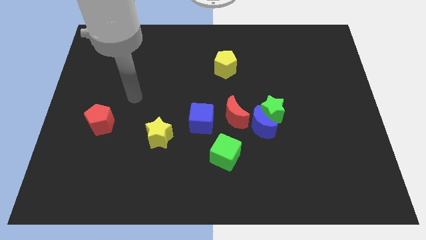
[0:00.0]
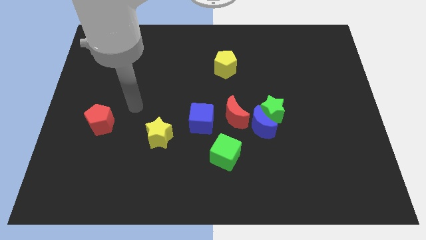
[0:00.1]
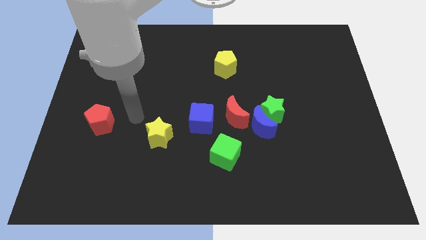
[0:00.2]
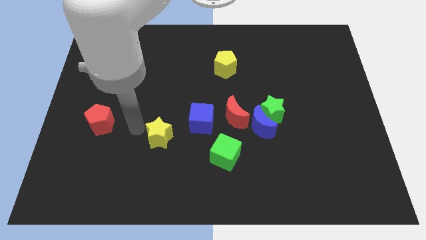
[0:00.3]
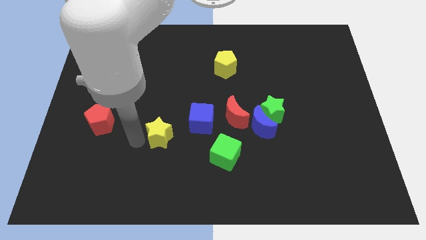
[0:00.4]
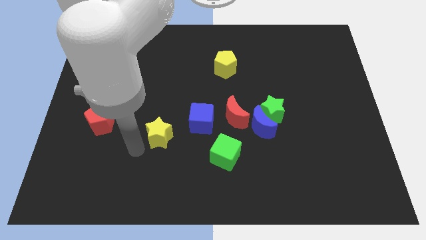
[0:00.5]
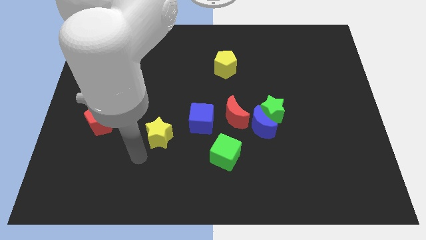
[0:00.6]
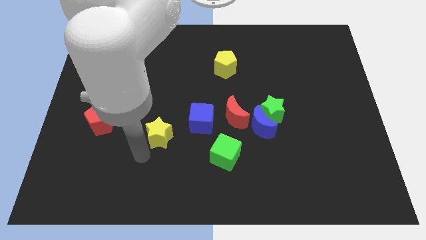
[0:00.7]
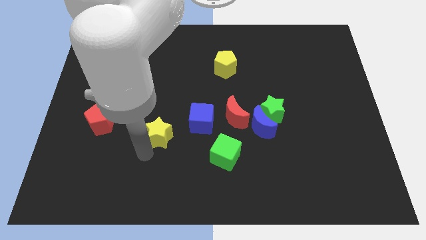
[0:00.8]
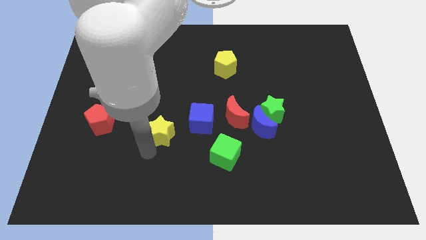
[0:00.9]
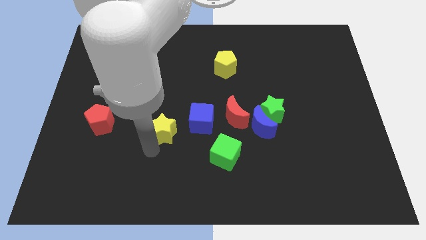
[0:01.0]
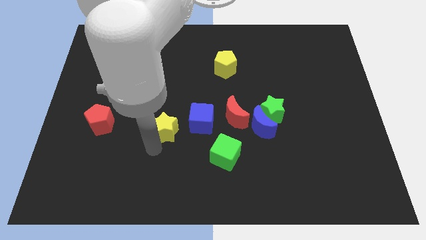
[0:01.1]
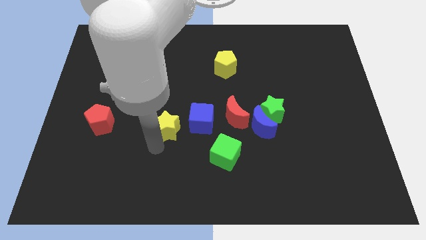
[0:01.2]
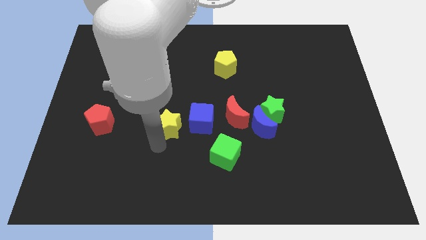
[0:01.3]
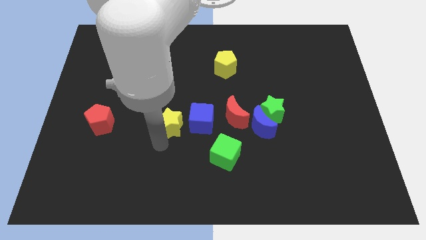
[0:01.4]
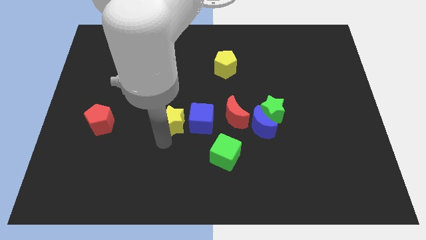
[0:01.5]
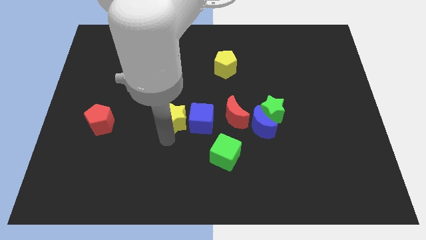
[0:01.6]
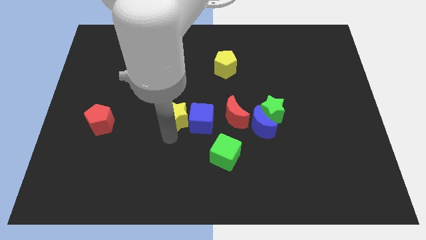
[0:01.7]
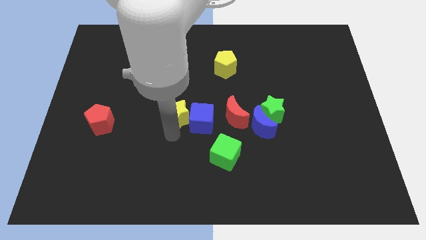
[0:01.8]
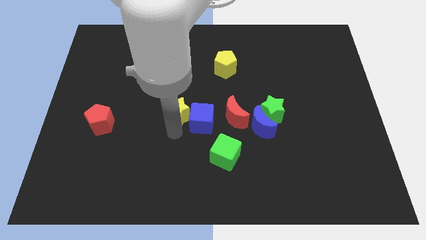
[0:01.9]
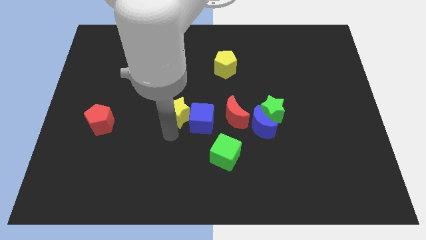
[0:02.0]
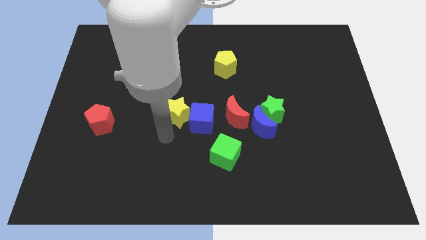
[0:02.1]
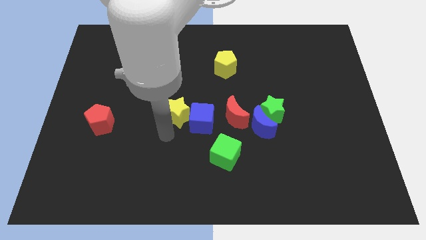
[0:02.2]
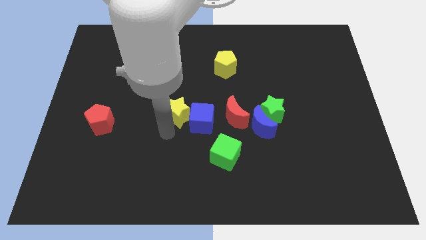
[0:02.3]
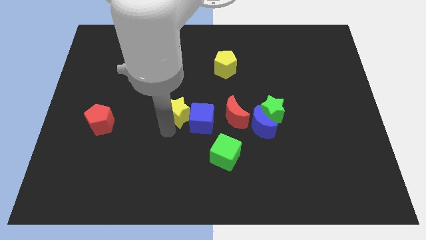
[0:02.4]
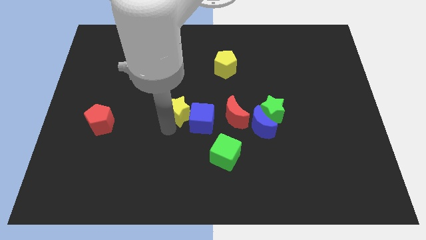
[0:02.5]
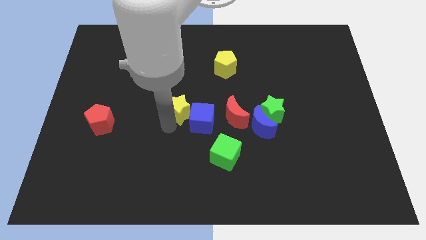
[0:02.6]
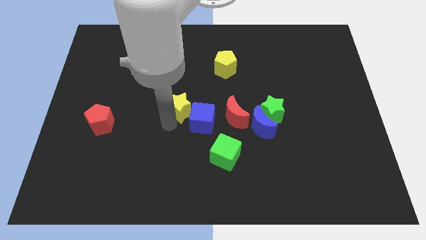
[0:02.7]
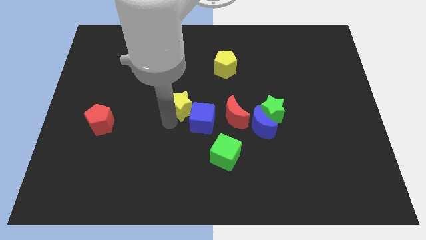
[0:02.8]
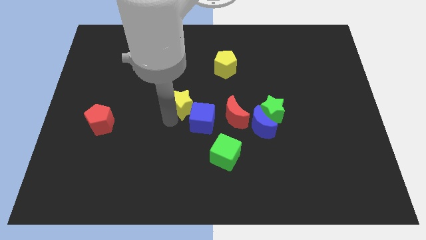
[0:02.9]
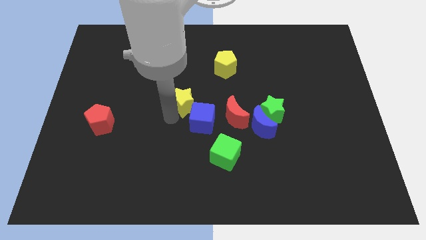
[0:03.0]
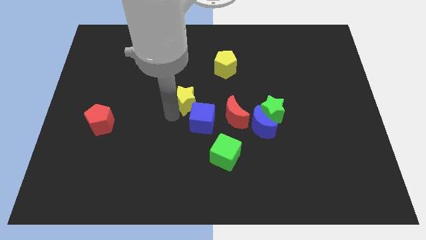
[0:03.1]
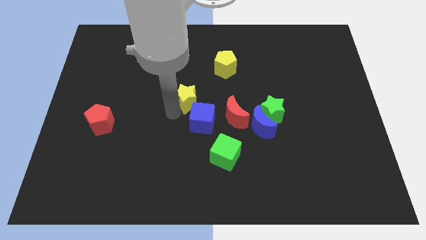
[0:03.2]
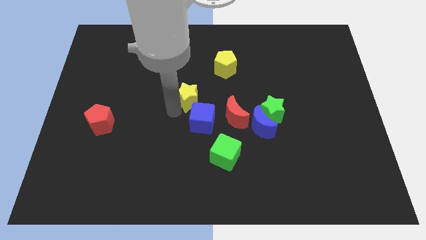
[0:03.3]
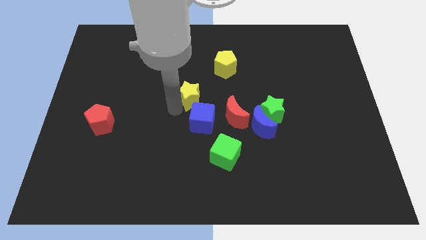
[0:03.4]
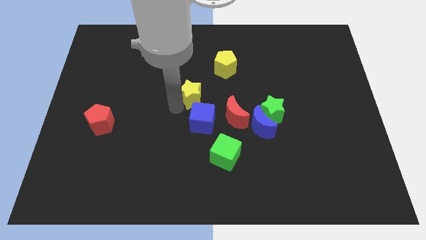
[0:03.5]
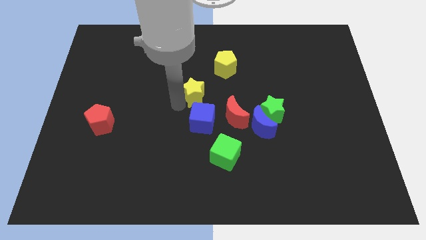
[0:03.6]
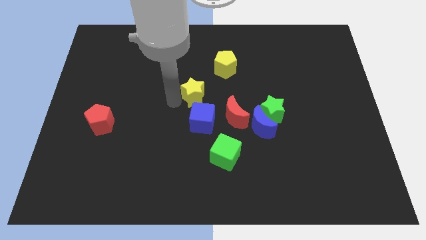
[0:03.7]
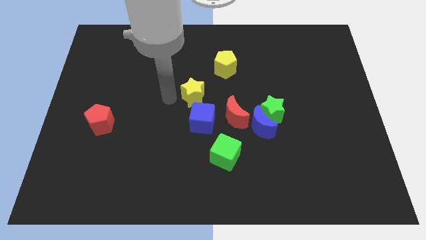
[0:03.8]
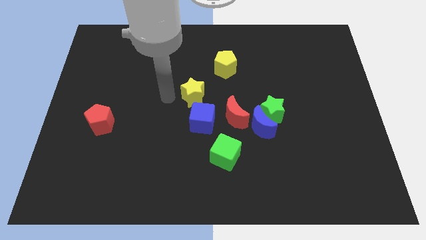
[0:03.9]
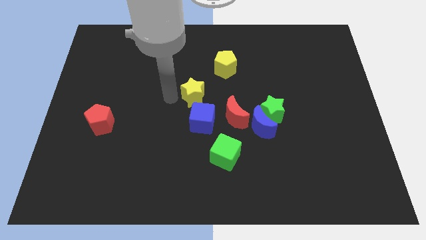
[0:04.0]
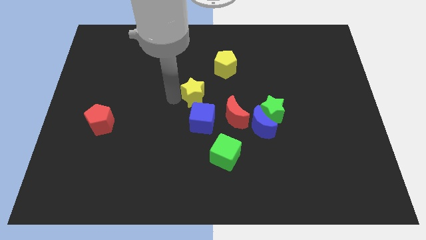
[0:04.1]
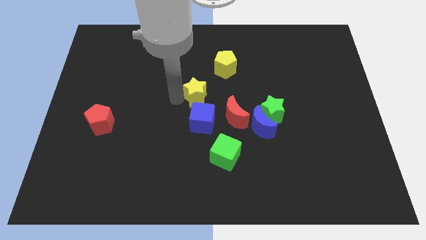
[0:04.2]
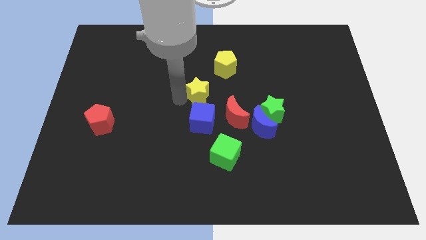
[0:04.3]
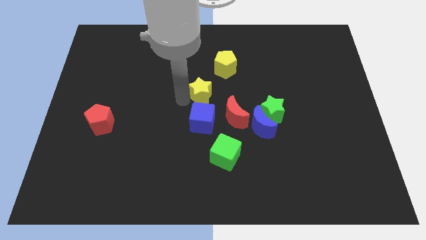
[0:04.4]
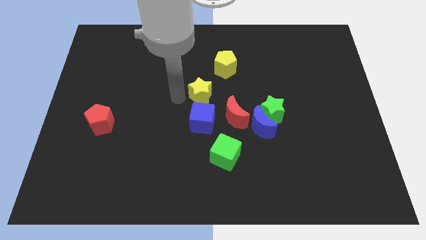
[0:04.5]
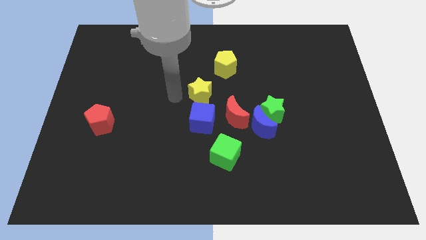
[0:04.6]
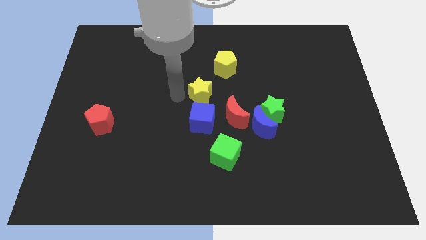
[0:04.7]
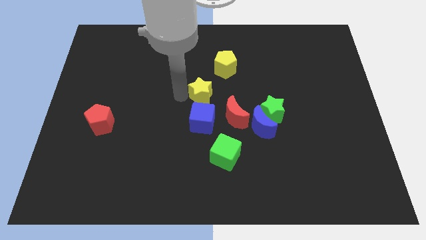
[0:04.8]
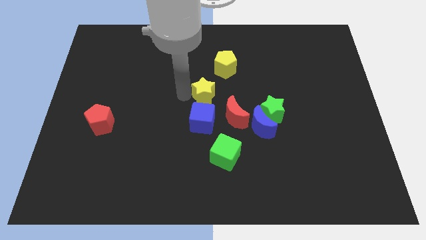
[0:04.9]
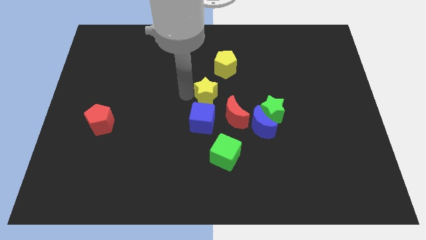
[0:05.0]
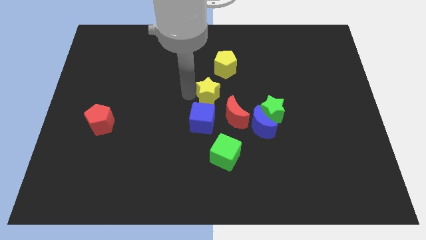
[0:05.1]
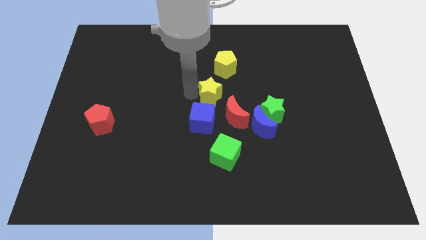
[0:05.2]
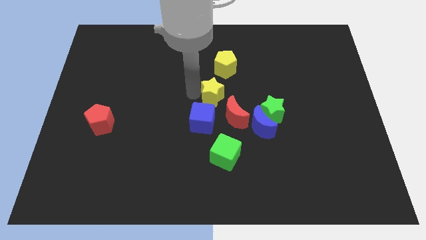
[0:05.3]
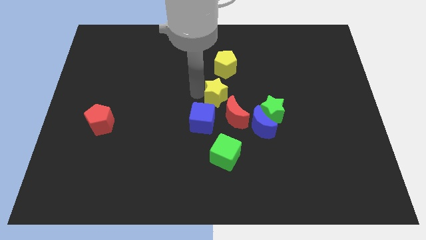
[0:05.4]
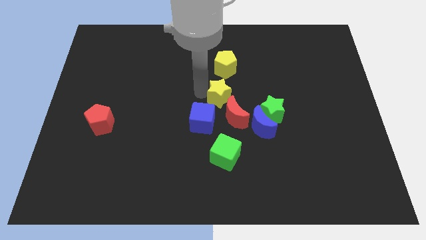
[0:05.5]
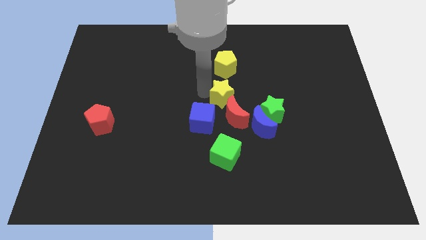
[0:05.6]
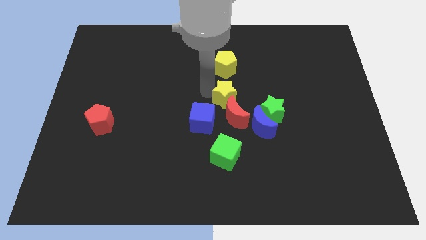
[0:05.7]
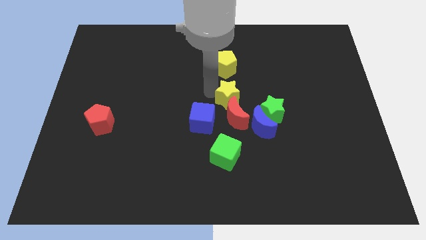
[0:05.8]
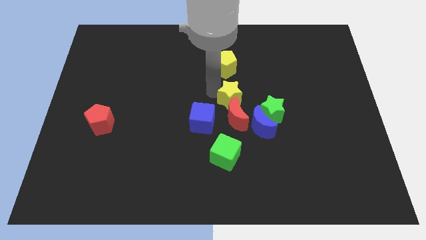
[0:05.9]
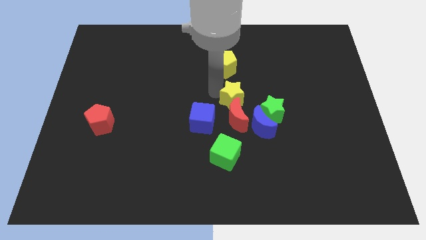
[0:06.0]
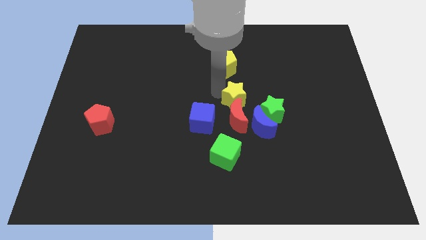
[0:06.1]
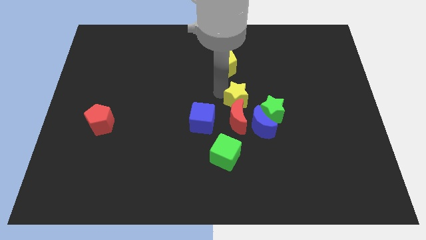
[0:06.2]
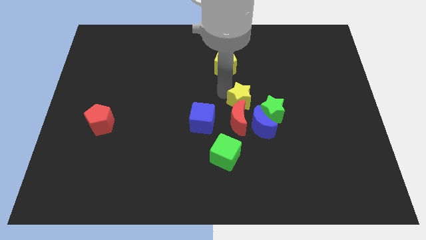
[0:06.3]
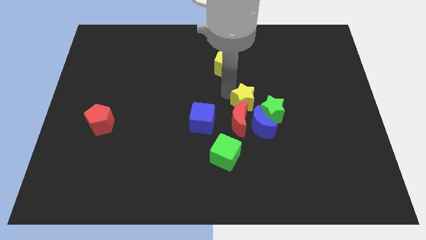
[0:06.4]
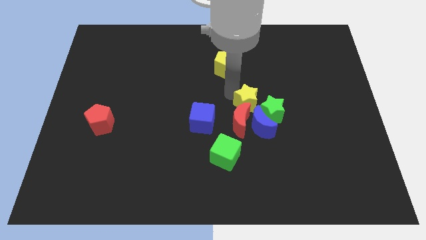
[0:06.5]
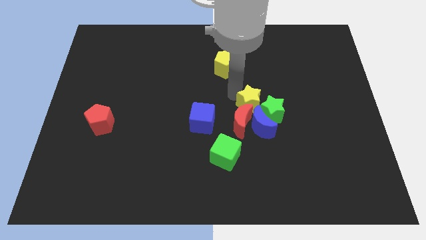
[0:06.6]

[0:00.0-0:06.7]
slide the yellow star to the green star

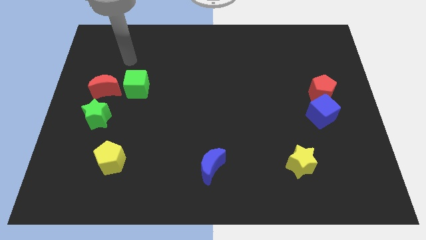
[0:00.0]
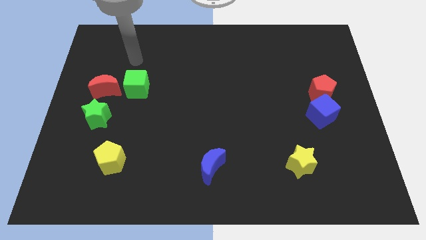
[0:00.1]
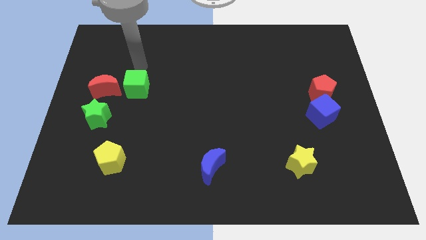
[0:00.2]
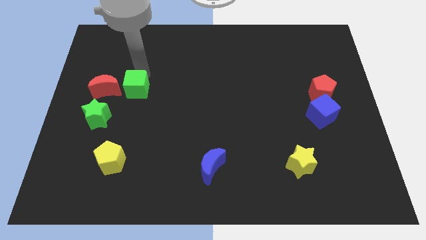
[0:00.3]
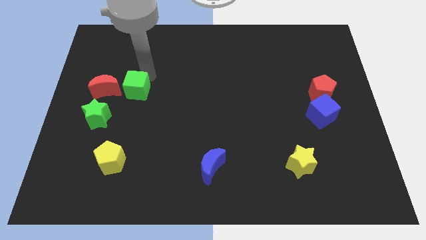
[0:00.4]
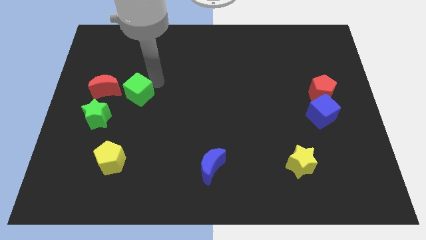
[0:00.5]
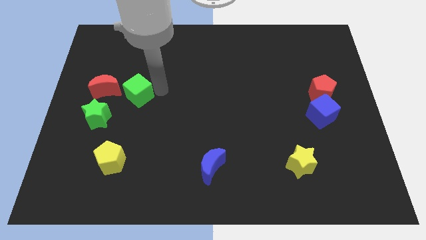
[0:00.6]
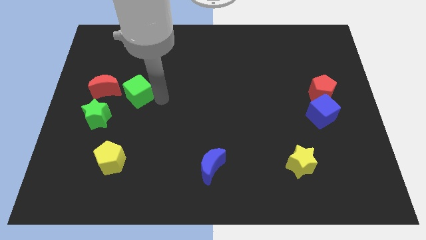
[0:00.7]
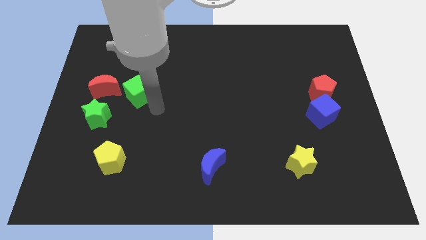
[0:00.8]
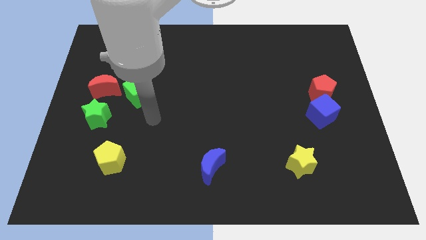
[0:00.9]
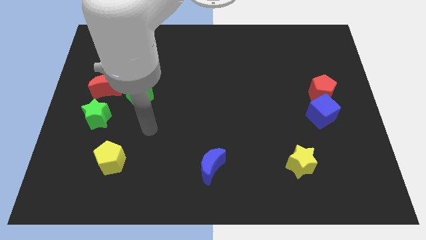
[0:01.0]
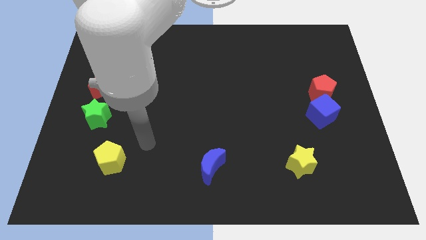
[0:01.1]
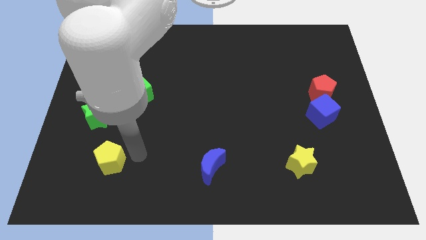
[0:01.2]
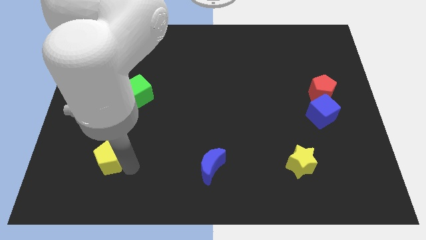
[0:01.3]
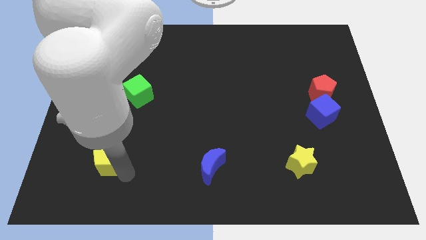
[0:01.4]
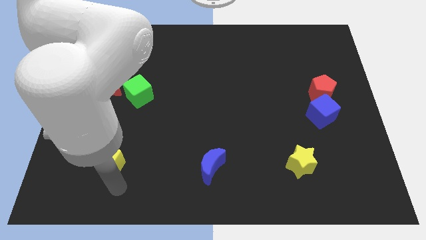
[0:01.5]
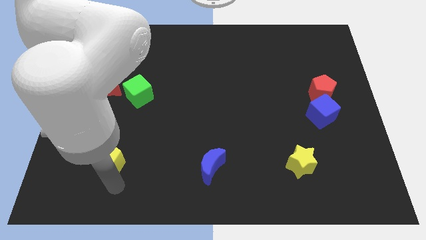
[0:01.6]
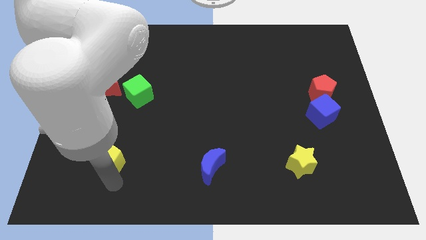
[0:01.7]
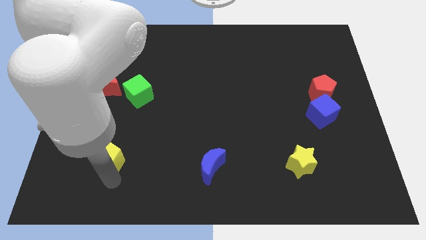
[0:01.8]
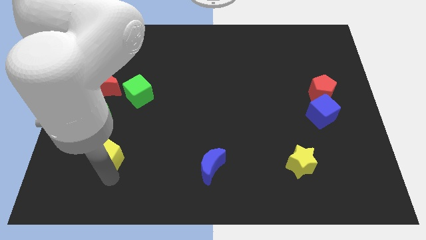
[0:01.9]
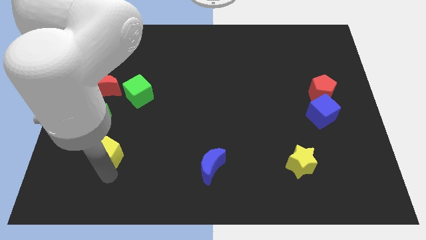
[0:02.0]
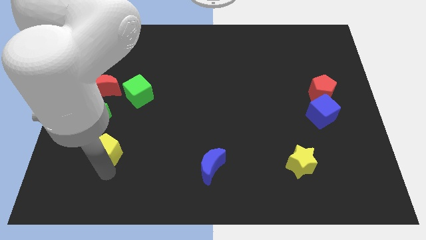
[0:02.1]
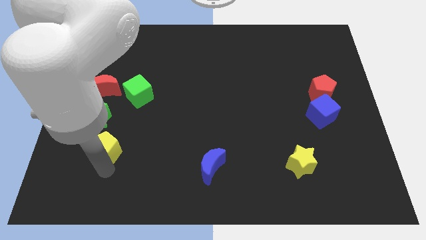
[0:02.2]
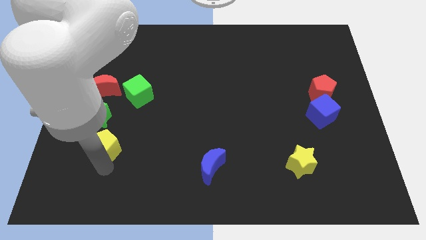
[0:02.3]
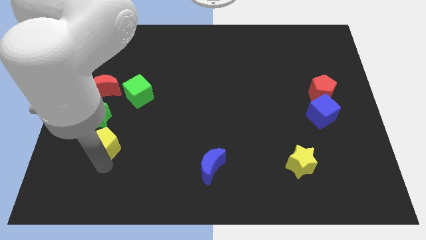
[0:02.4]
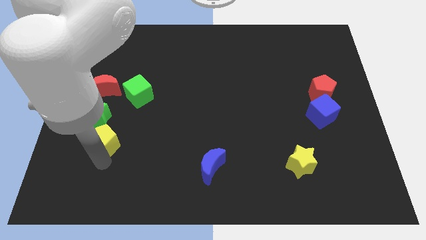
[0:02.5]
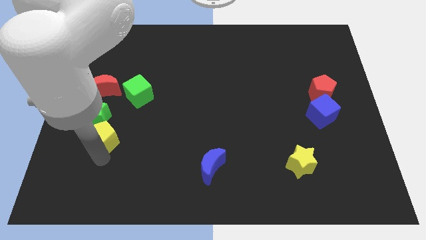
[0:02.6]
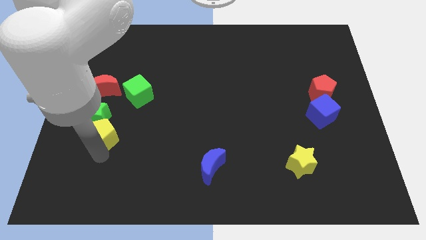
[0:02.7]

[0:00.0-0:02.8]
put the yellow pentagon towards the green star
